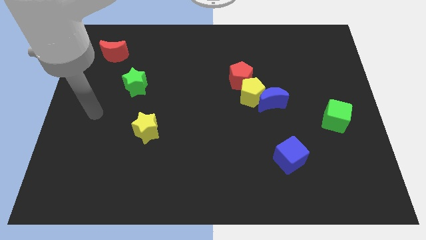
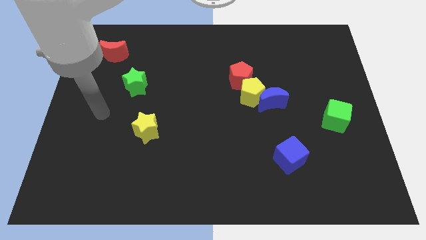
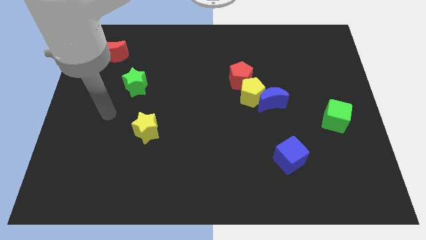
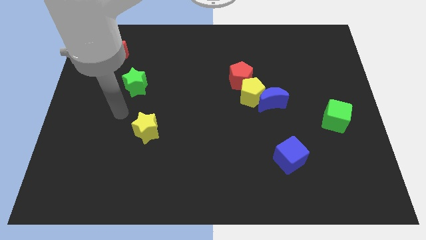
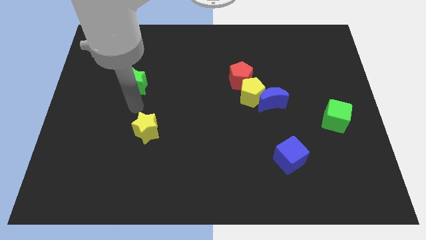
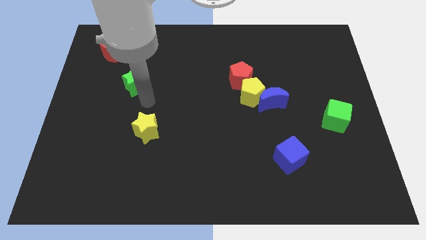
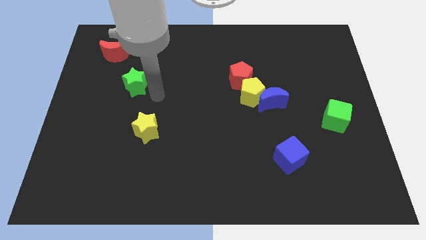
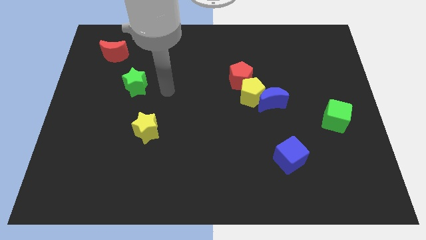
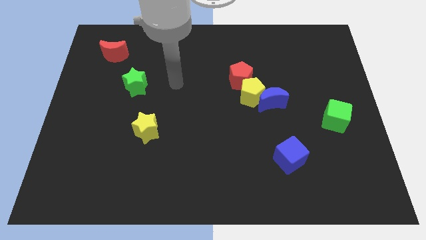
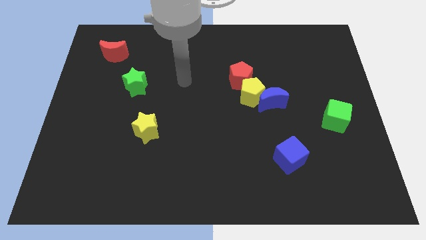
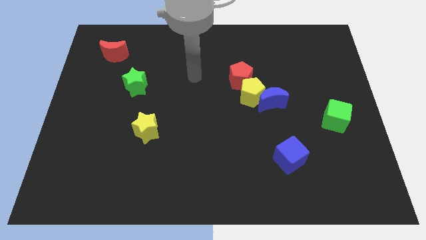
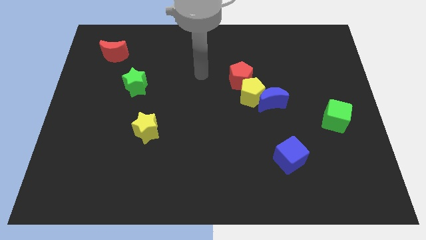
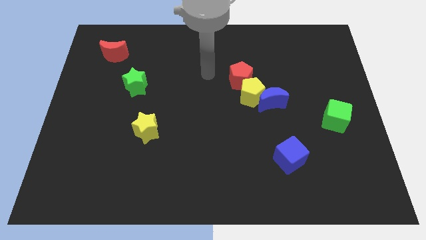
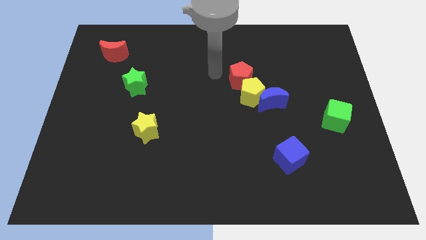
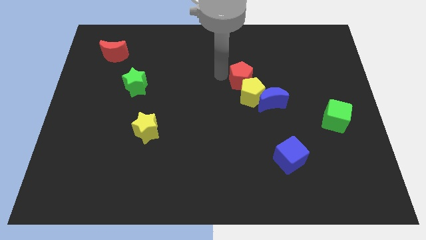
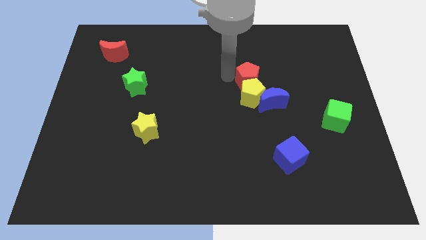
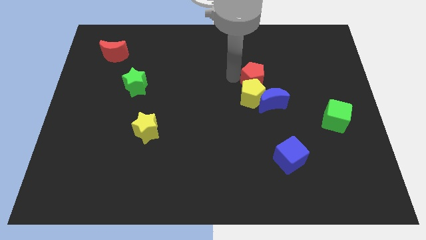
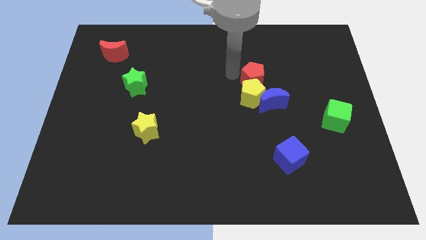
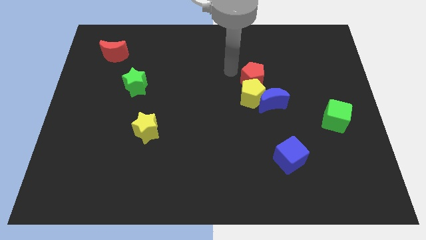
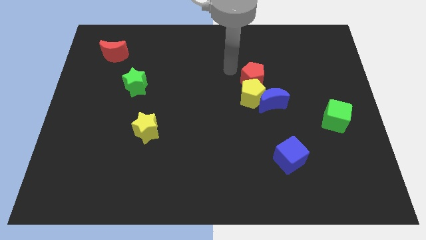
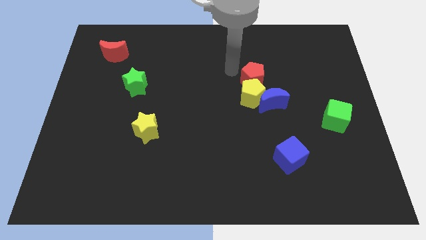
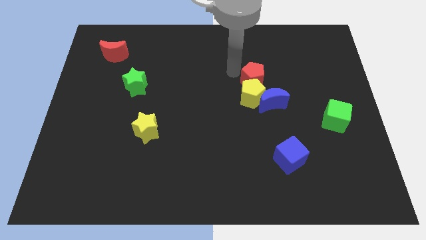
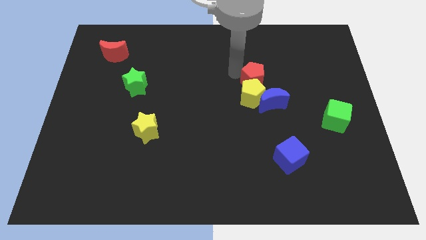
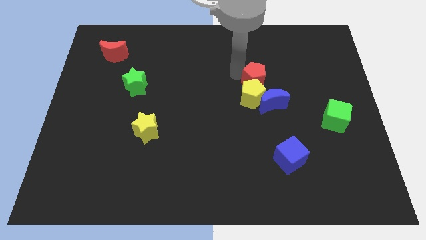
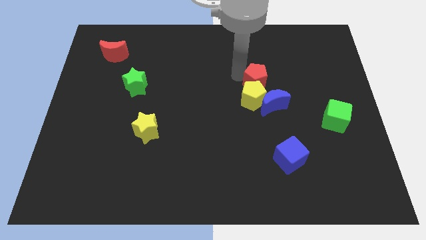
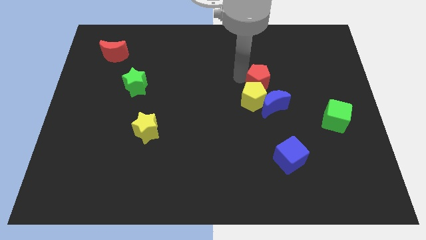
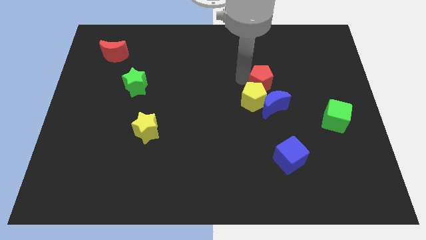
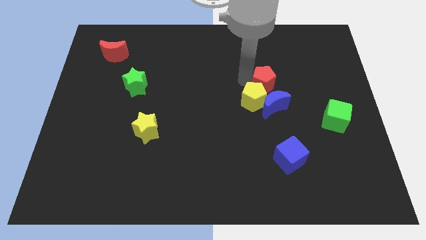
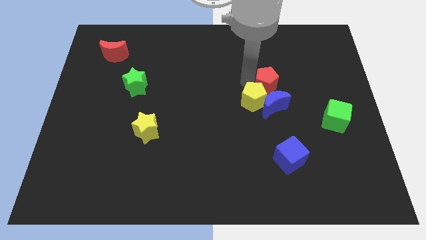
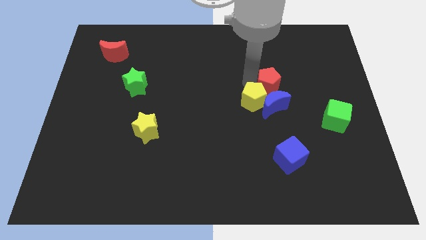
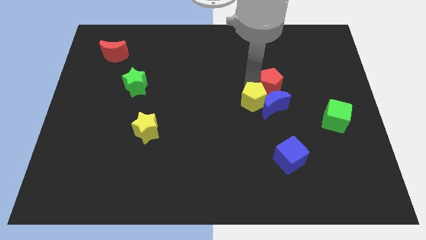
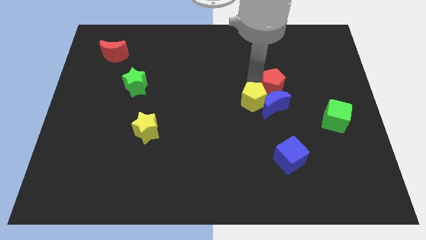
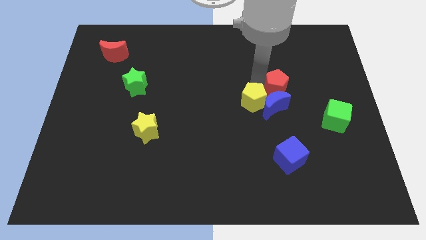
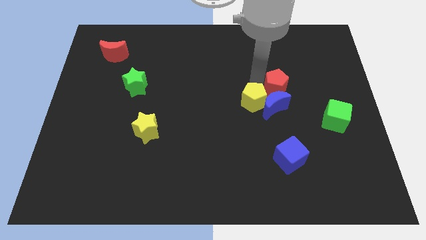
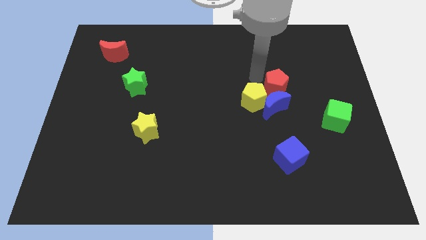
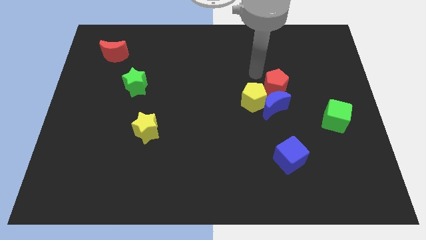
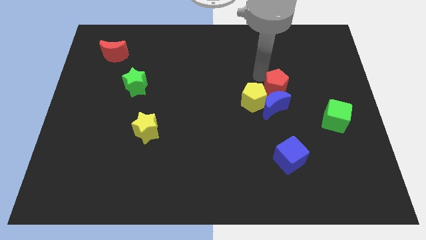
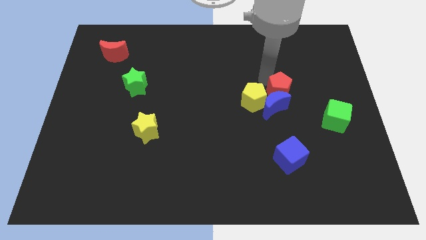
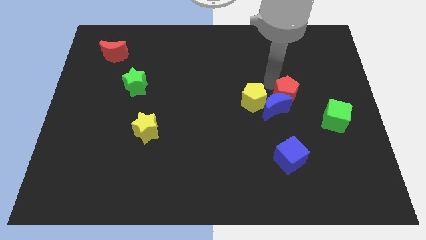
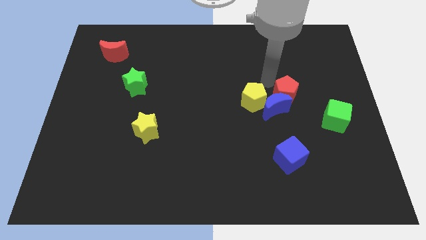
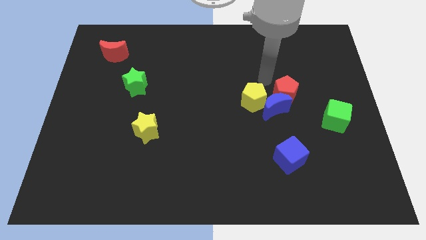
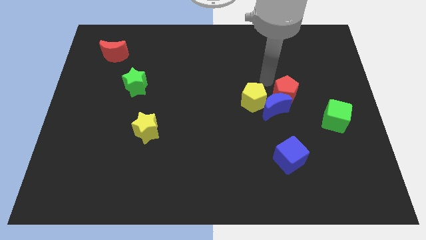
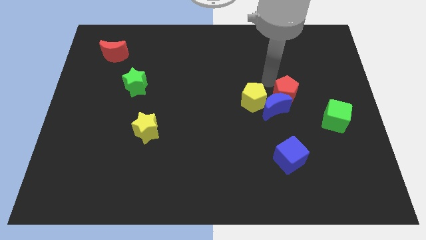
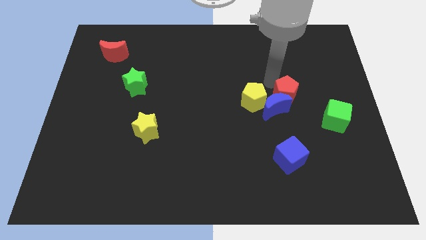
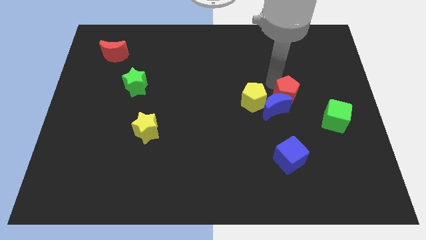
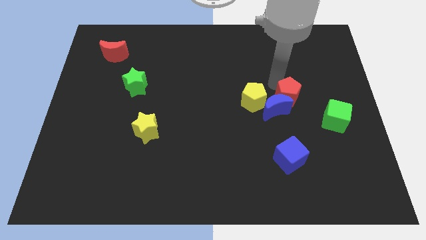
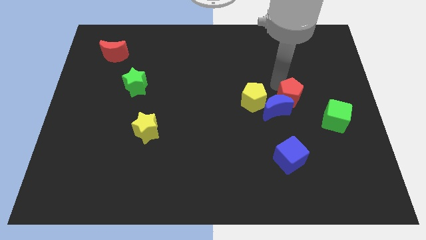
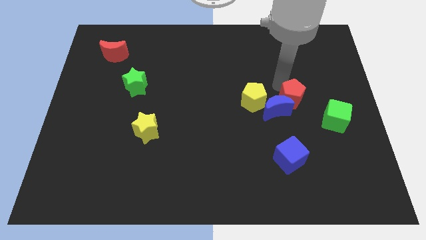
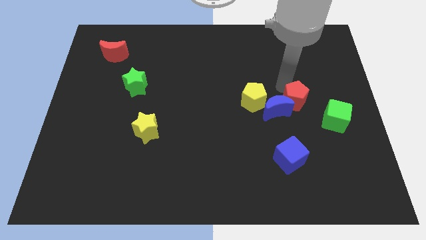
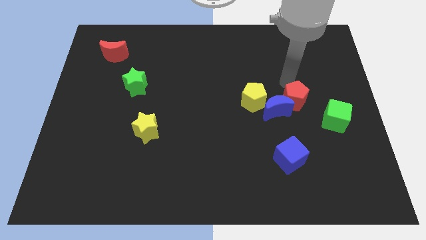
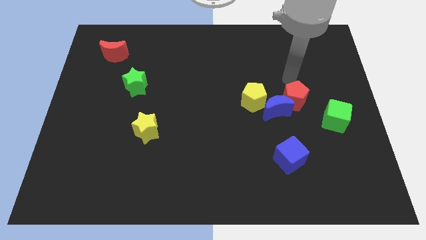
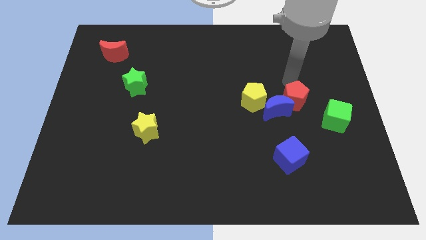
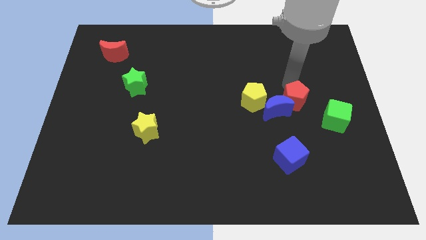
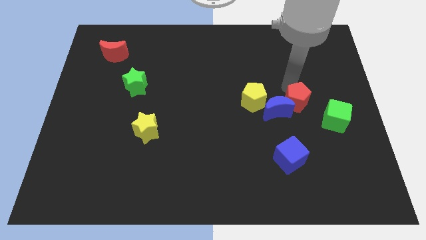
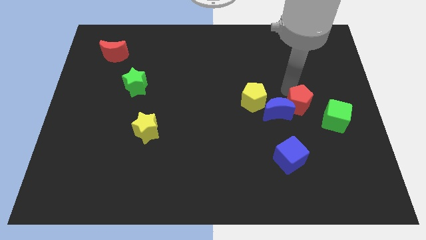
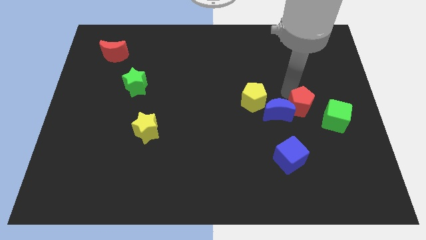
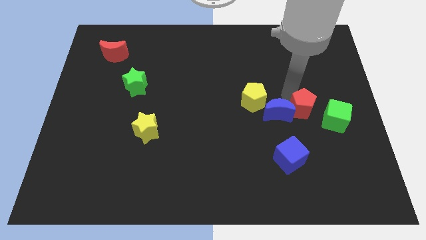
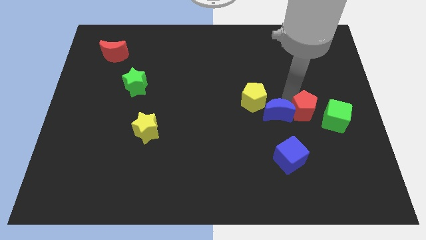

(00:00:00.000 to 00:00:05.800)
push the red pentagon to the bottom right of the blue moon

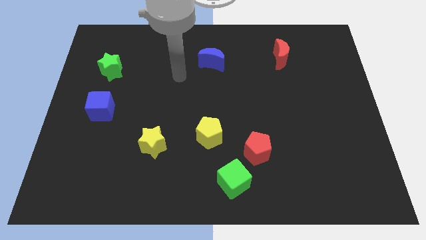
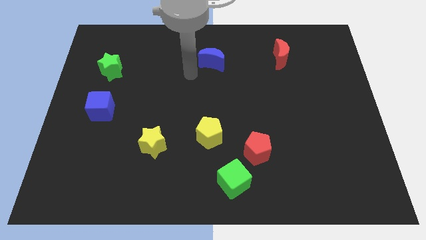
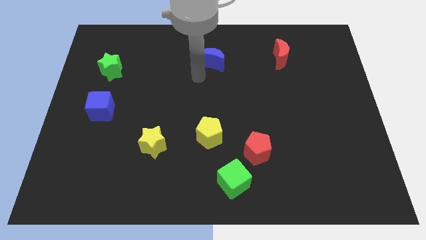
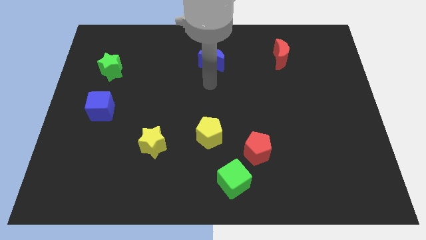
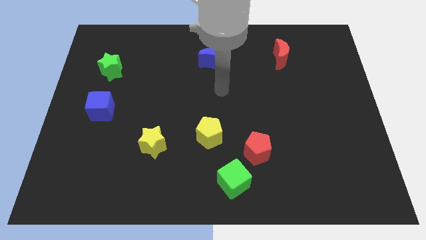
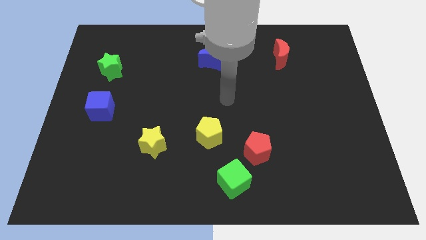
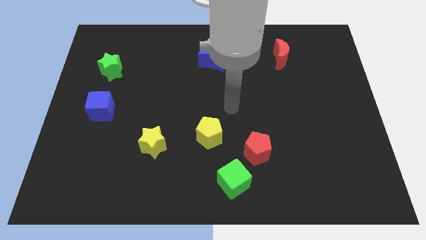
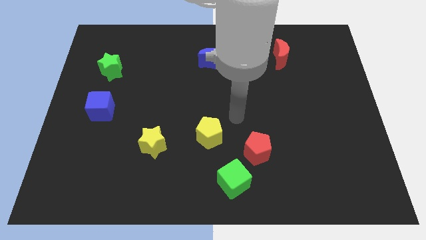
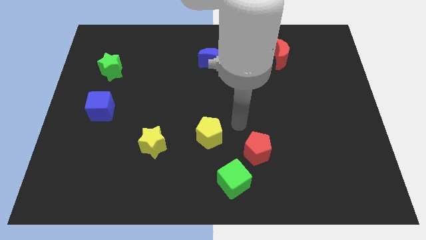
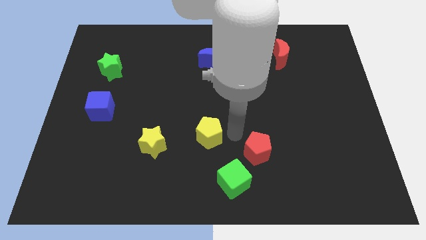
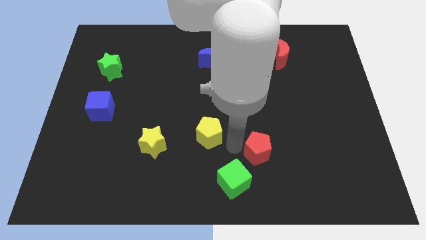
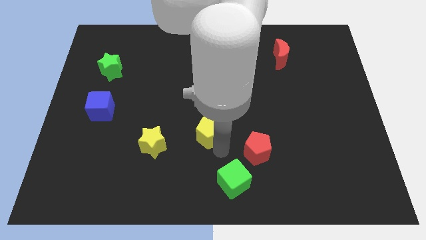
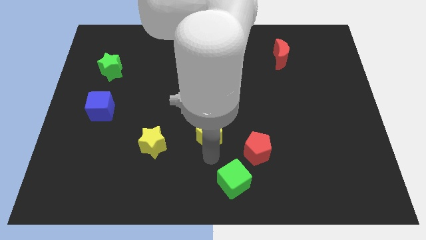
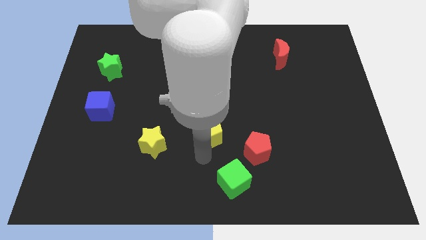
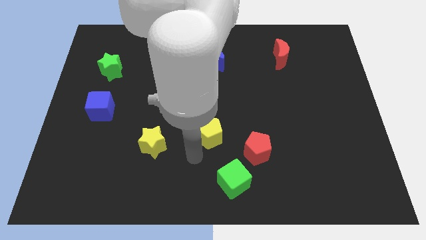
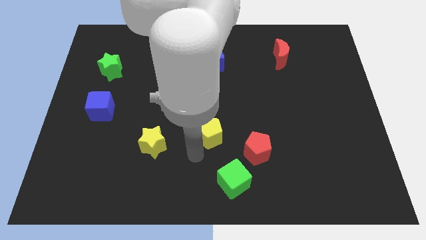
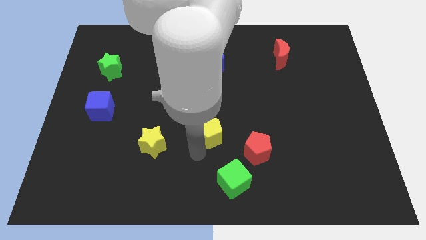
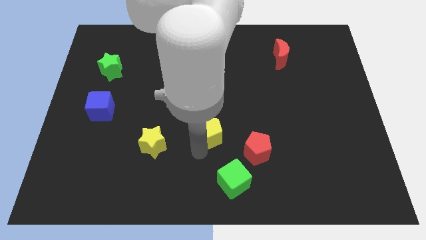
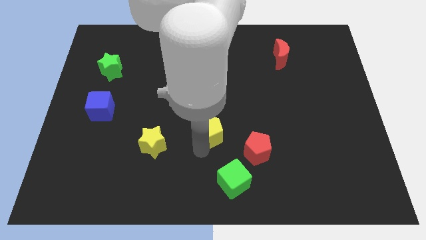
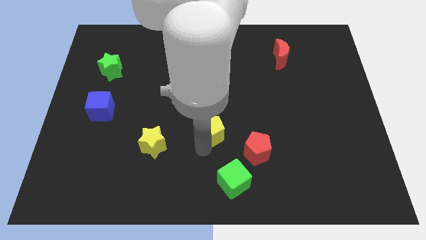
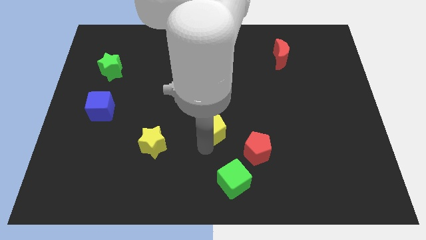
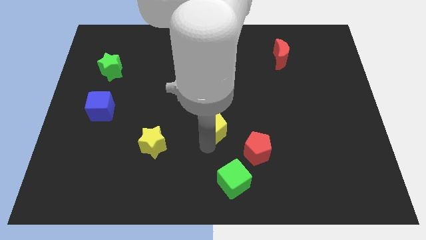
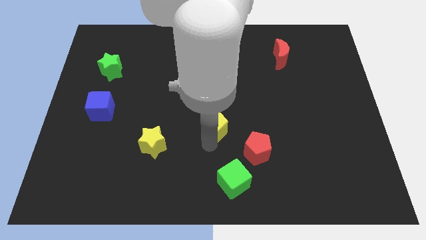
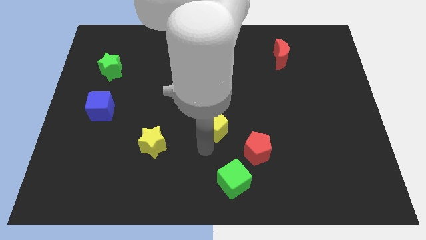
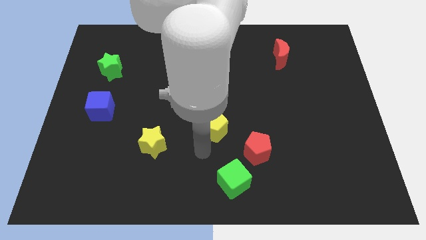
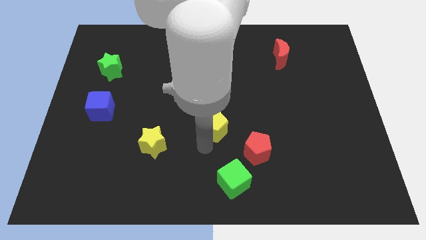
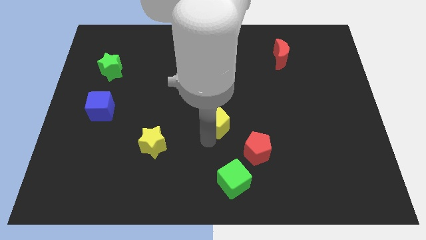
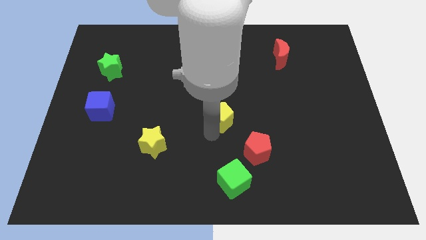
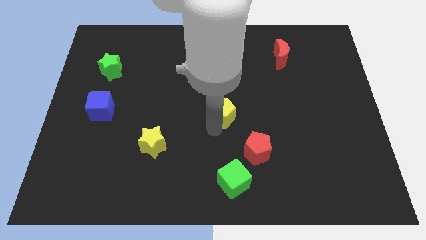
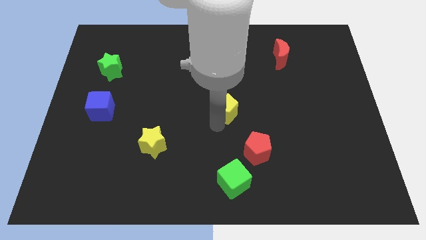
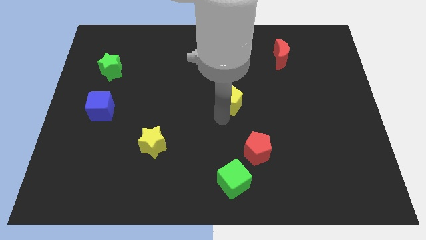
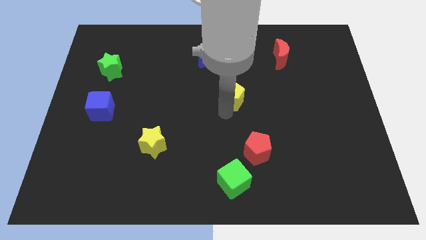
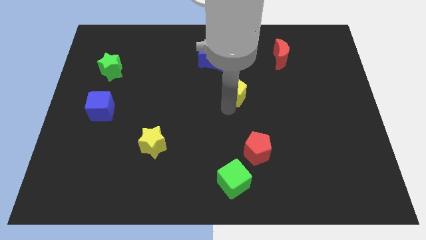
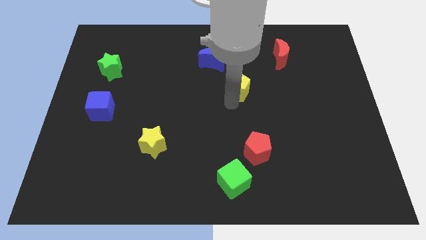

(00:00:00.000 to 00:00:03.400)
put the yellow pentagon diagonally down and to the right of the blue moon
